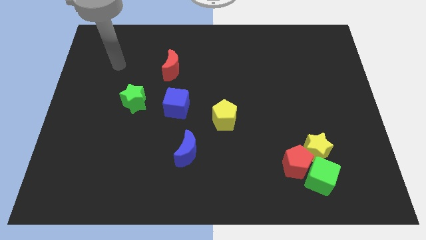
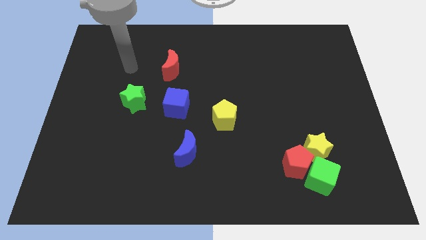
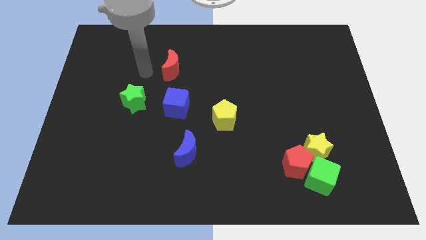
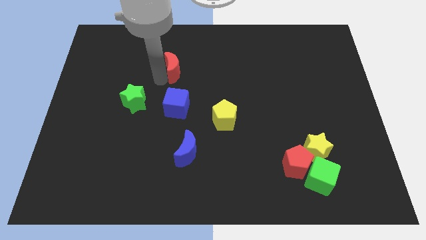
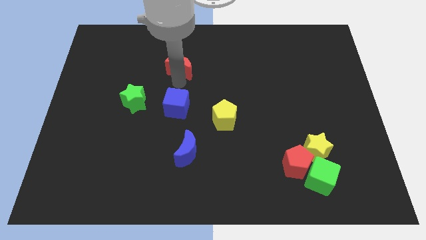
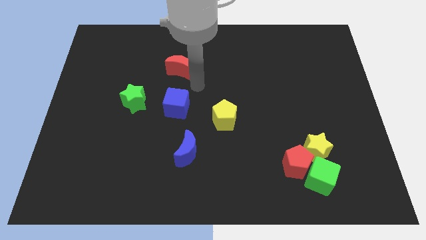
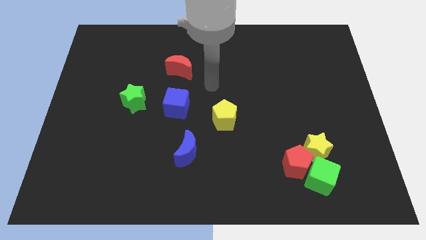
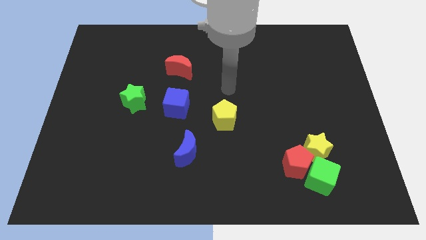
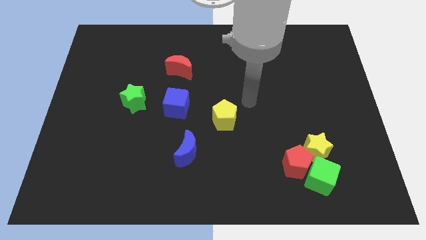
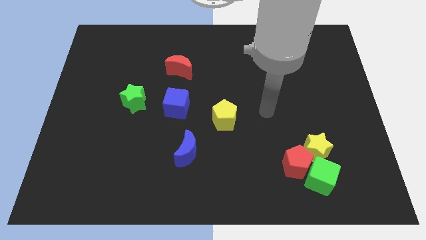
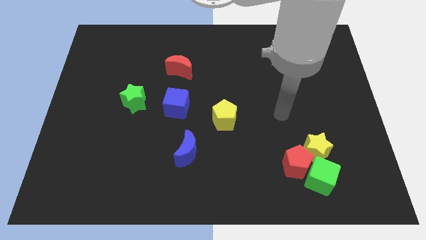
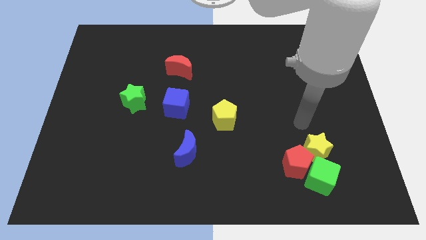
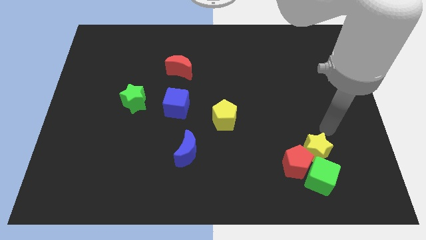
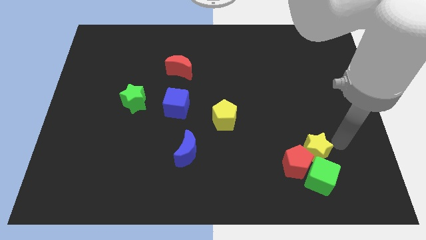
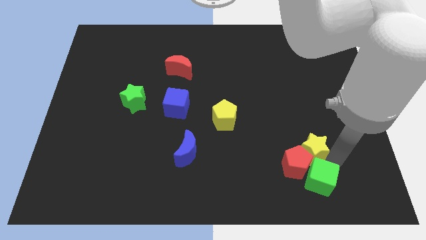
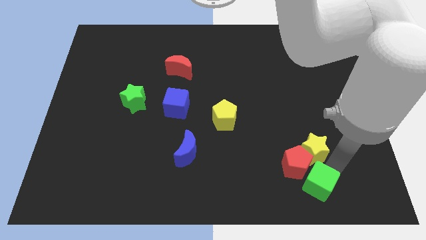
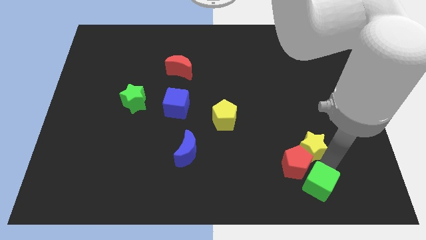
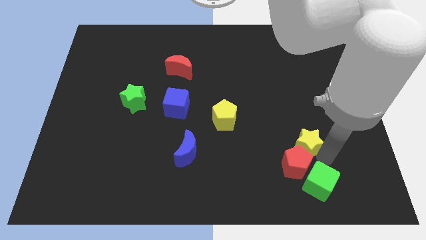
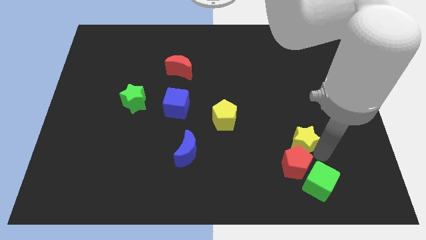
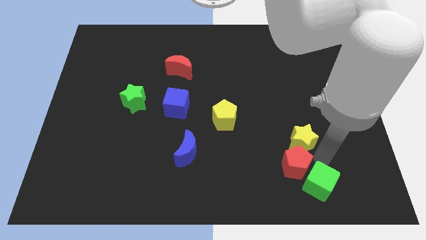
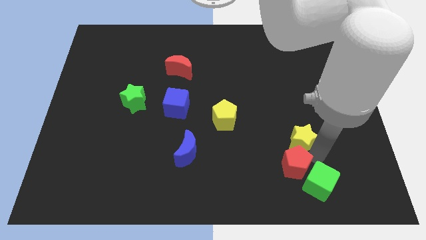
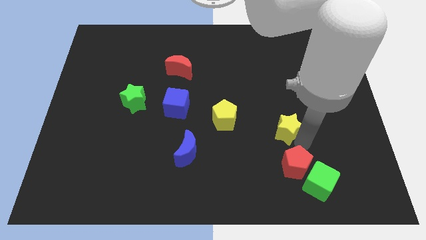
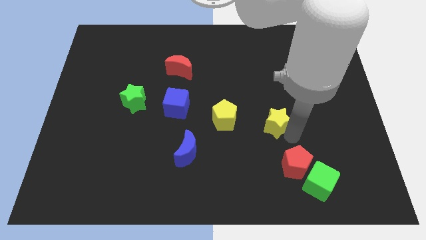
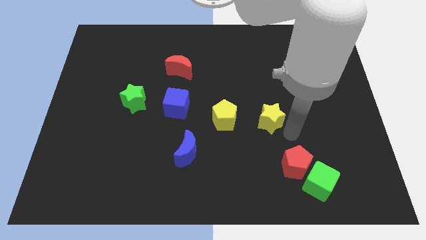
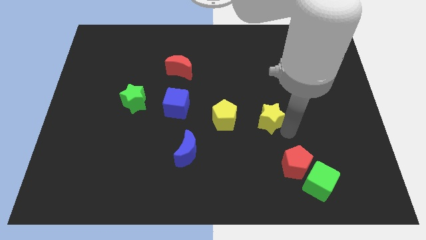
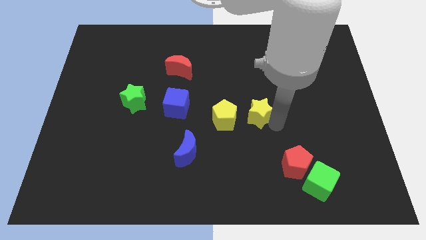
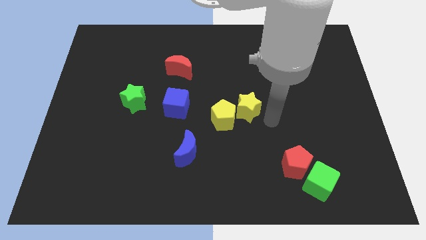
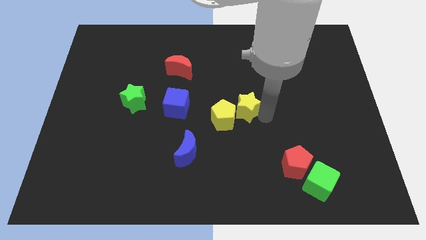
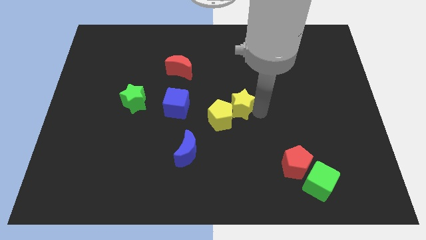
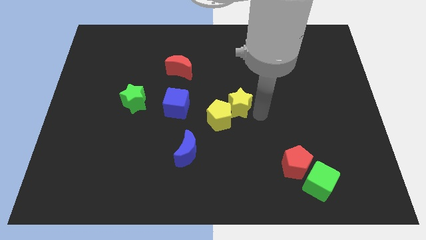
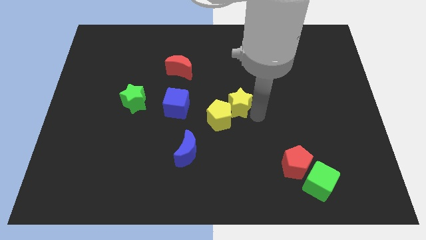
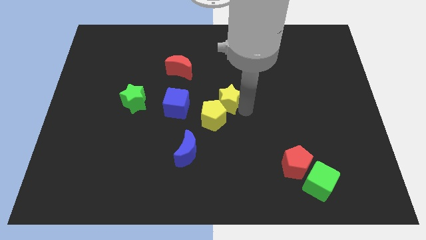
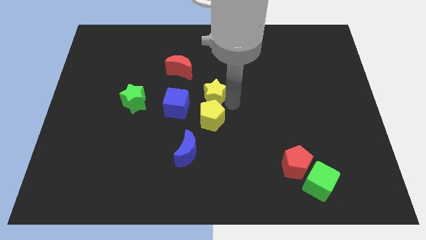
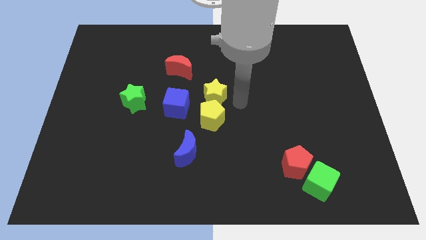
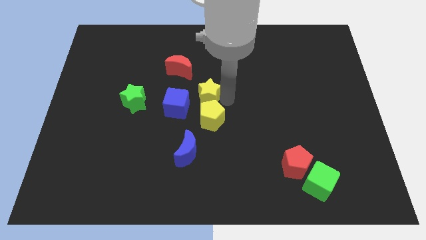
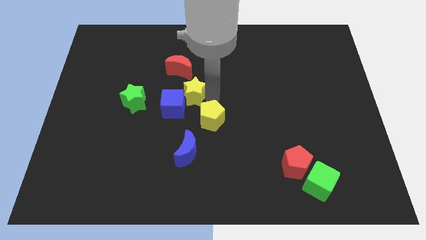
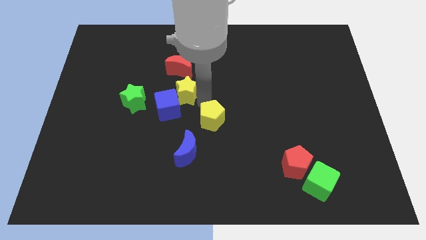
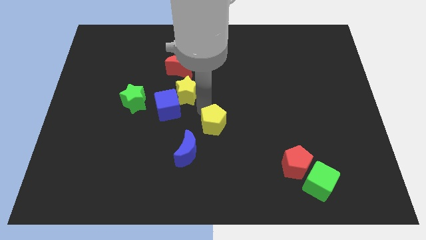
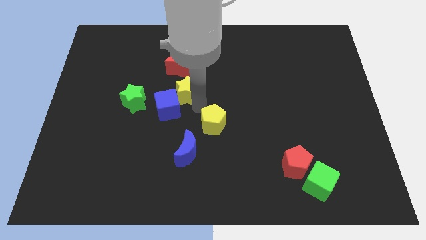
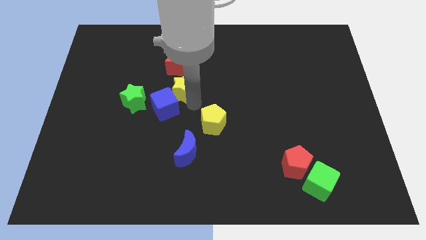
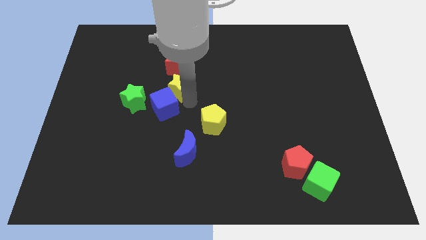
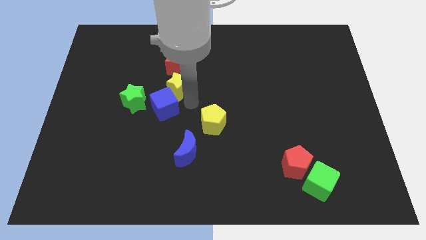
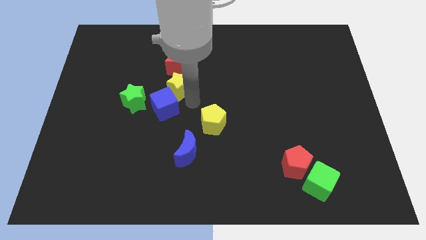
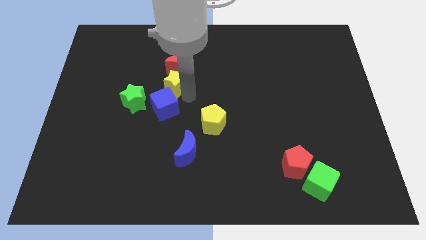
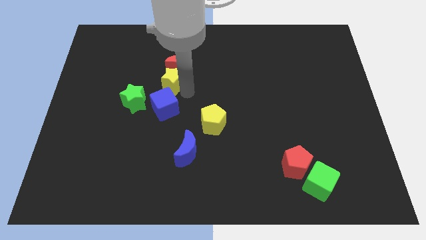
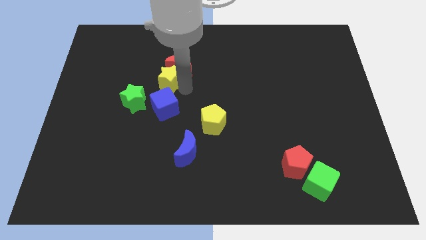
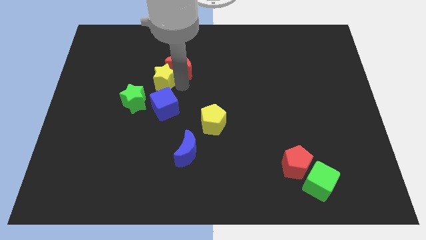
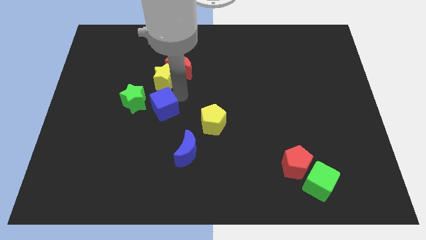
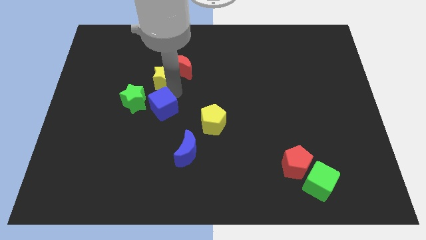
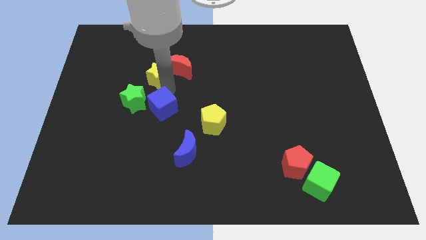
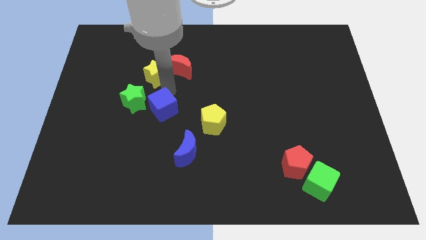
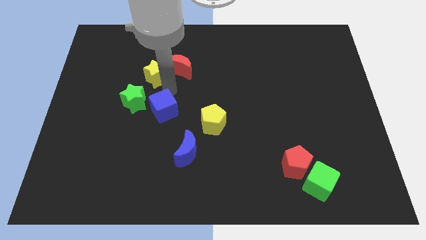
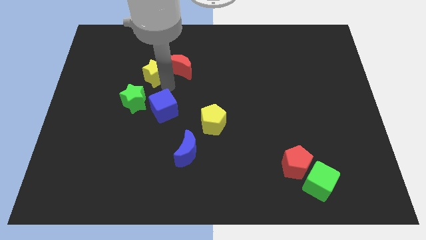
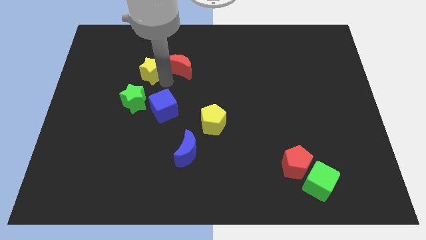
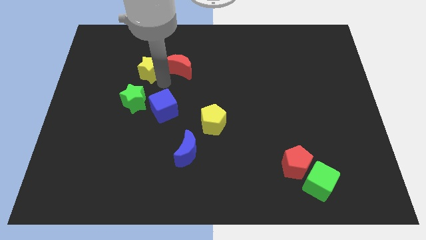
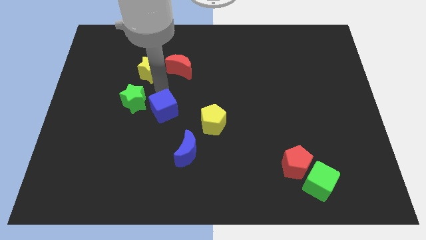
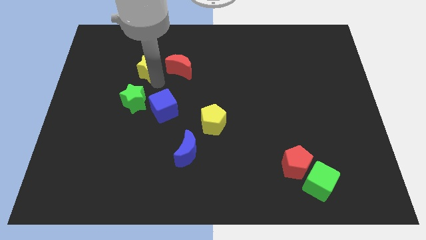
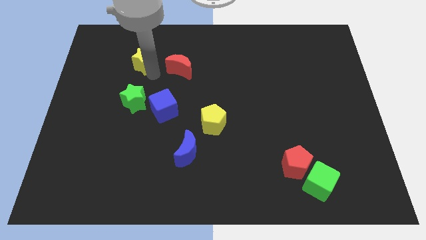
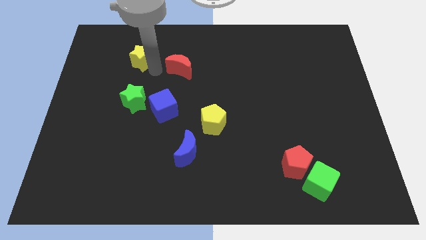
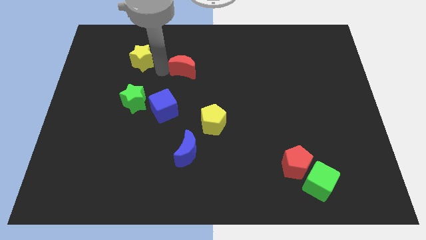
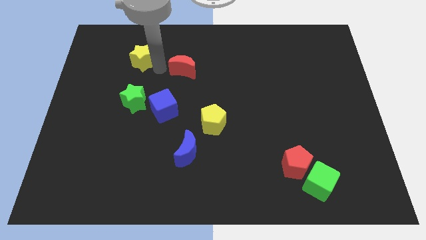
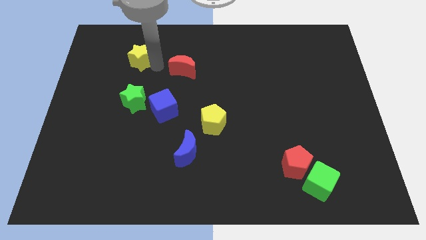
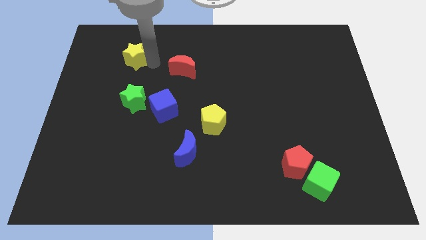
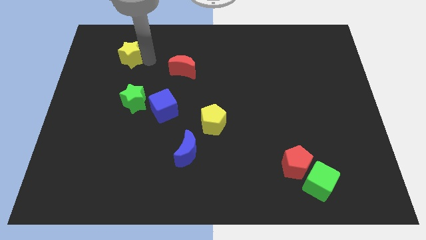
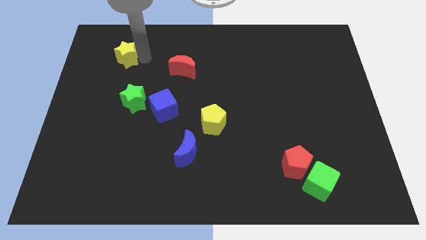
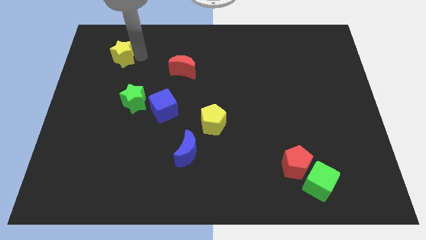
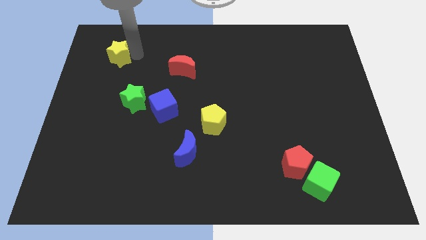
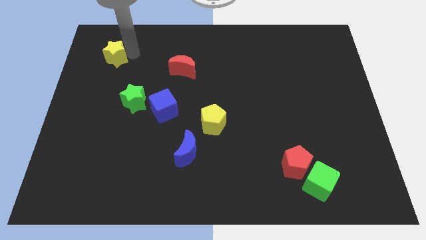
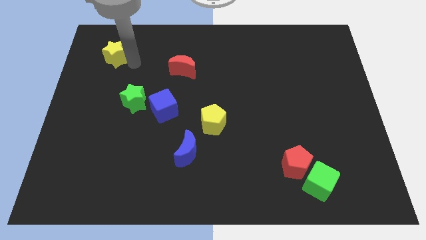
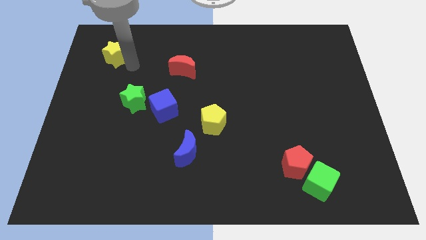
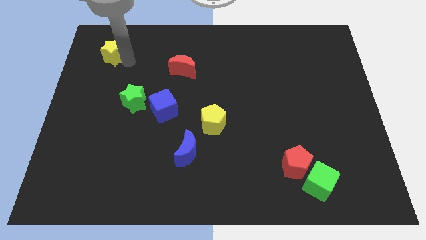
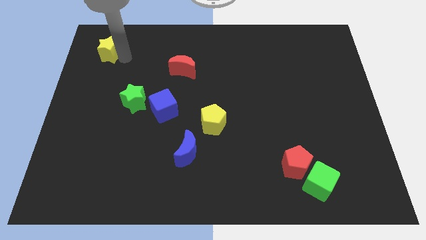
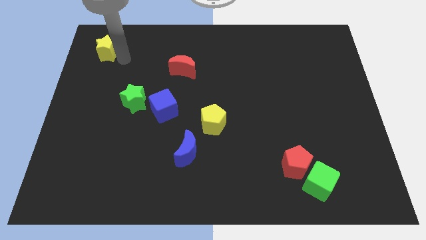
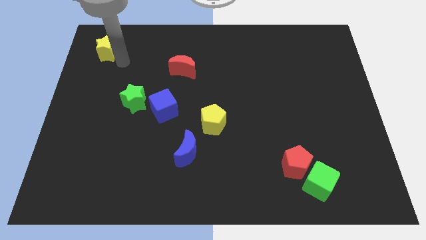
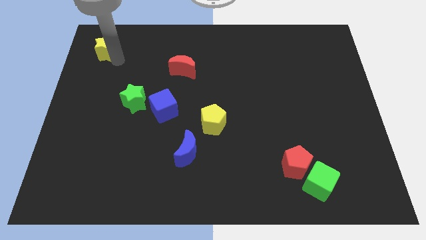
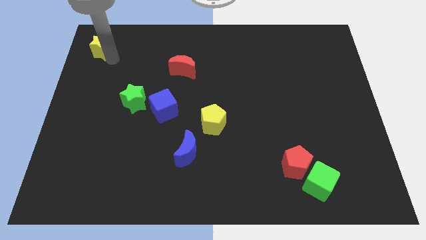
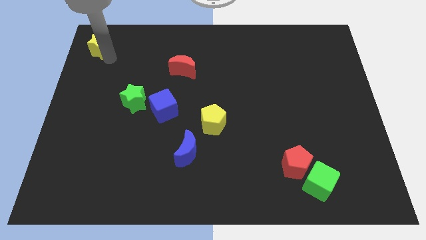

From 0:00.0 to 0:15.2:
push the yellow star to the top left corner
